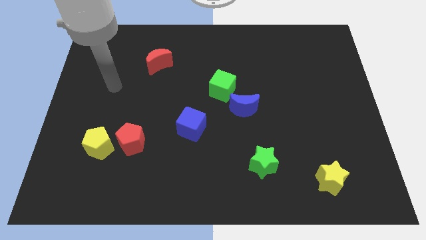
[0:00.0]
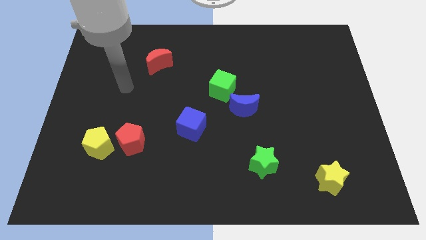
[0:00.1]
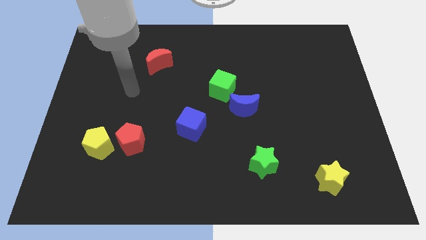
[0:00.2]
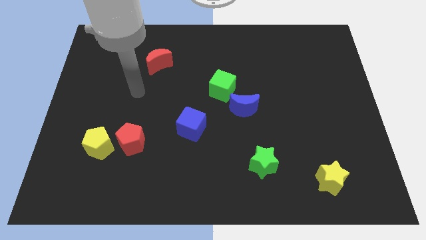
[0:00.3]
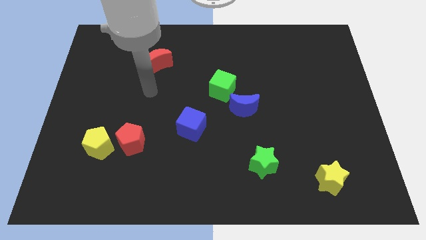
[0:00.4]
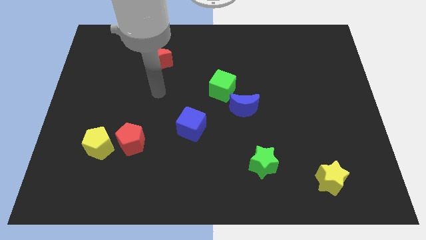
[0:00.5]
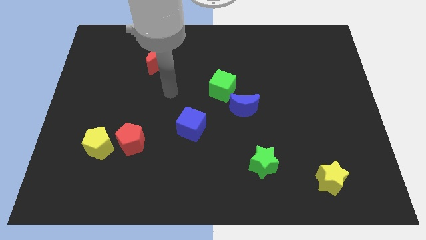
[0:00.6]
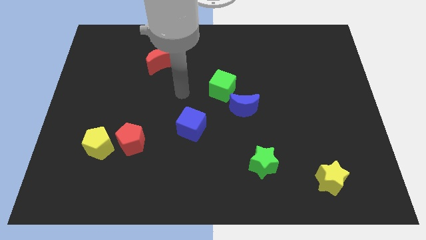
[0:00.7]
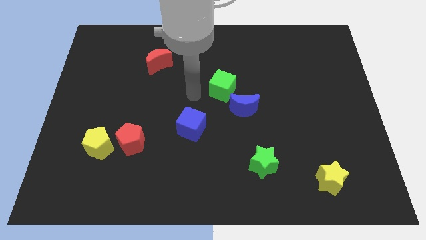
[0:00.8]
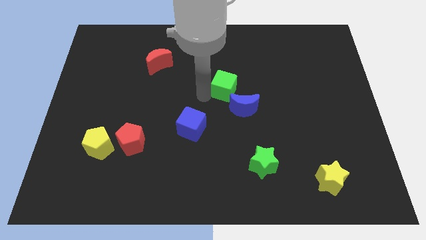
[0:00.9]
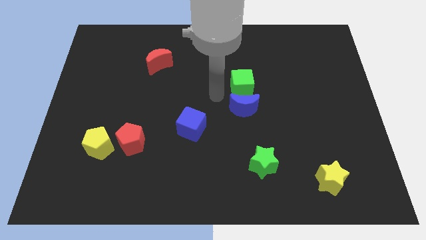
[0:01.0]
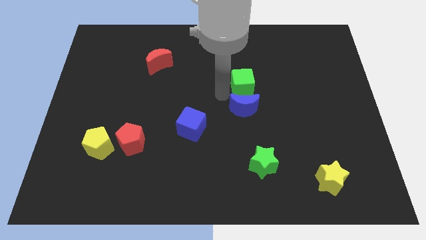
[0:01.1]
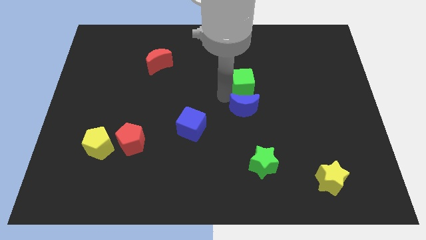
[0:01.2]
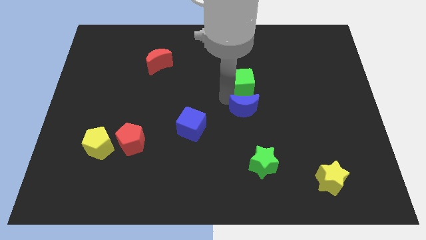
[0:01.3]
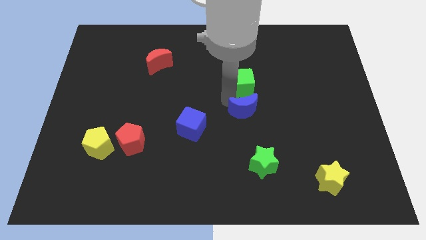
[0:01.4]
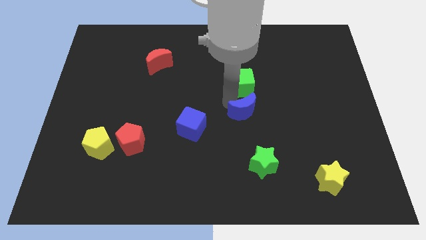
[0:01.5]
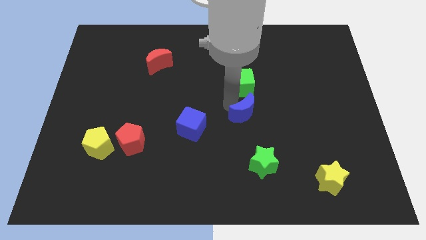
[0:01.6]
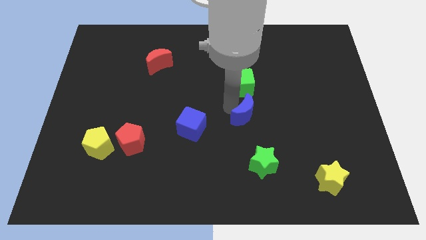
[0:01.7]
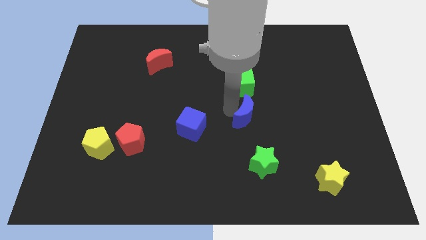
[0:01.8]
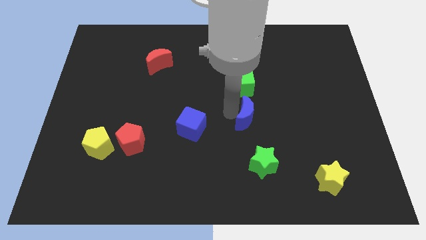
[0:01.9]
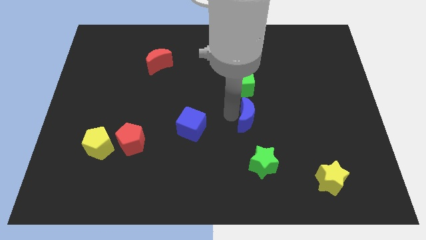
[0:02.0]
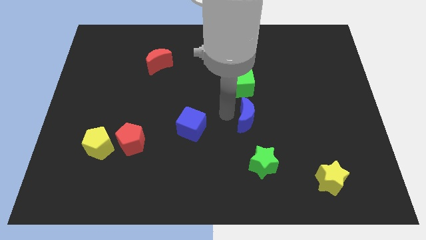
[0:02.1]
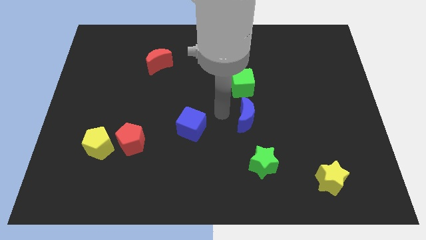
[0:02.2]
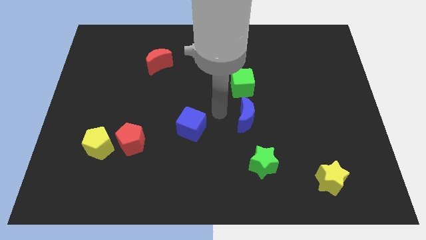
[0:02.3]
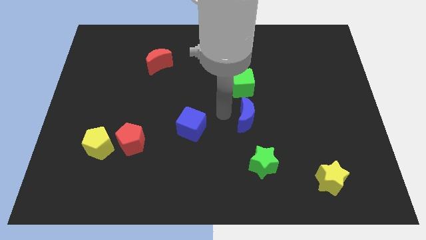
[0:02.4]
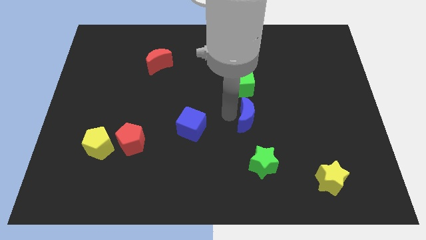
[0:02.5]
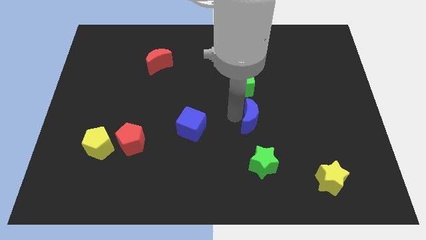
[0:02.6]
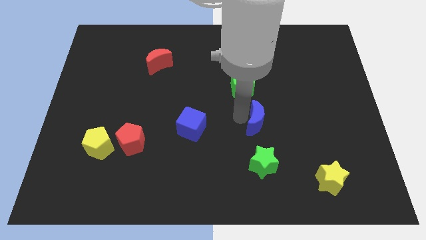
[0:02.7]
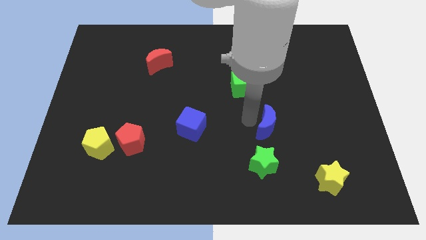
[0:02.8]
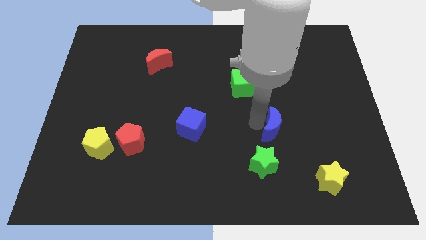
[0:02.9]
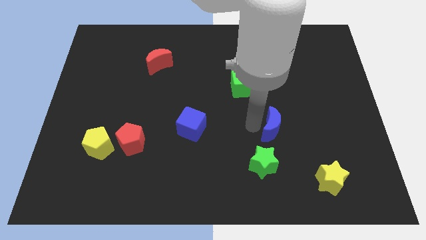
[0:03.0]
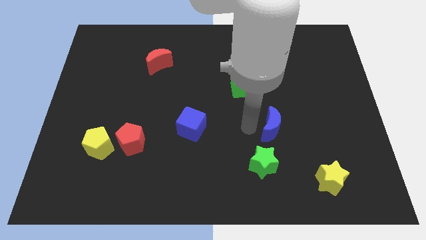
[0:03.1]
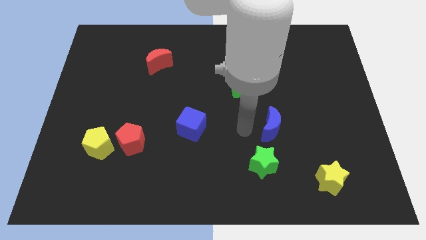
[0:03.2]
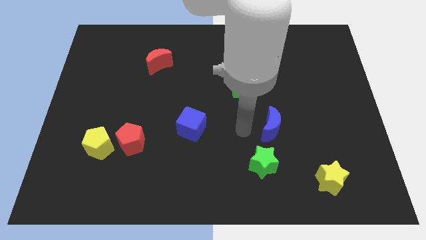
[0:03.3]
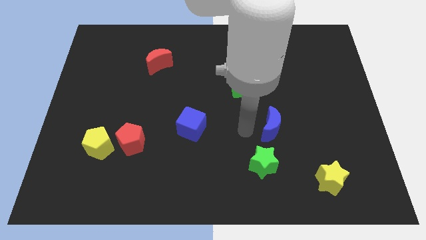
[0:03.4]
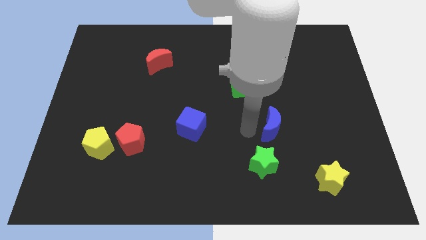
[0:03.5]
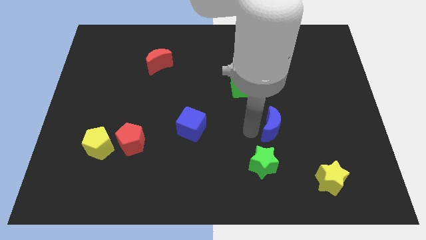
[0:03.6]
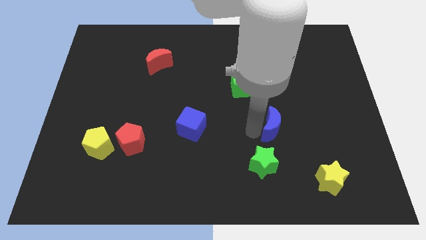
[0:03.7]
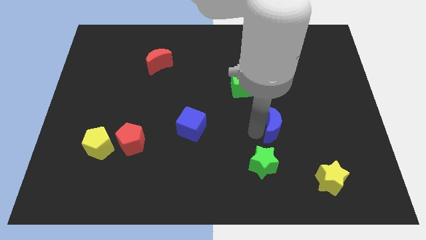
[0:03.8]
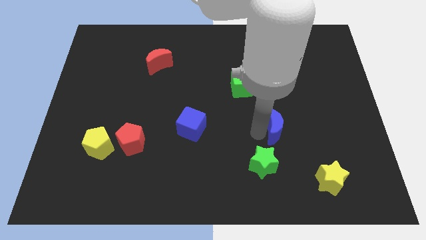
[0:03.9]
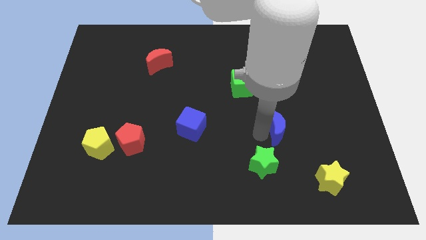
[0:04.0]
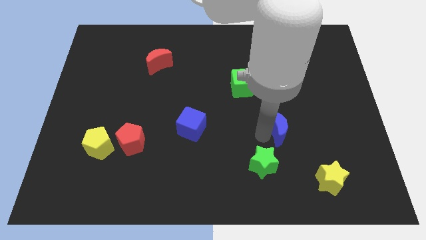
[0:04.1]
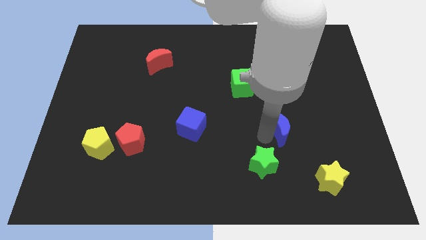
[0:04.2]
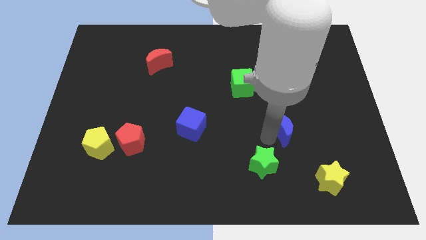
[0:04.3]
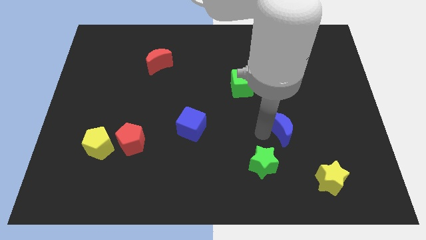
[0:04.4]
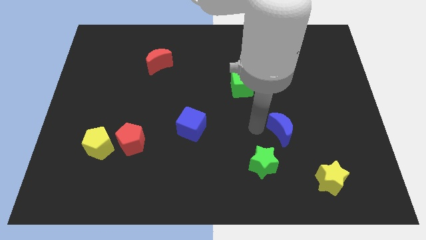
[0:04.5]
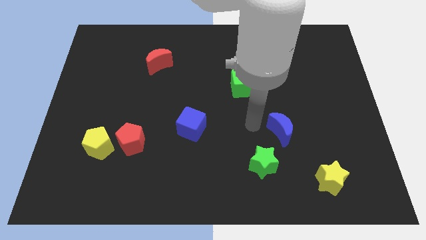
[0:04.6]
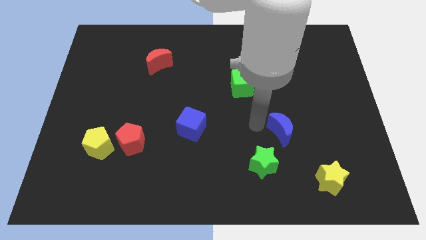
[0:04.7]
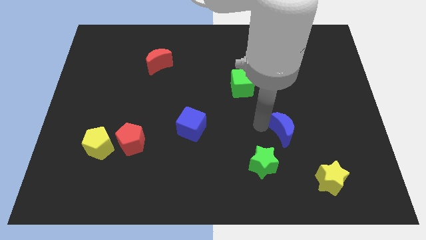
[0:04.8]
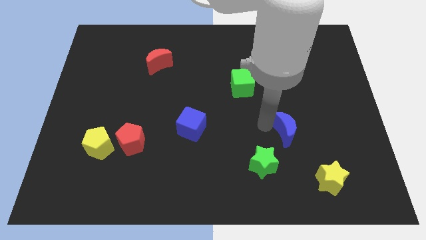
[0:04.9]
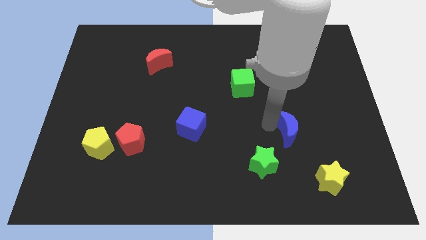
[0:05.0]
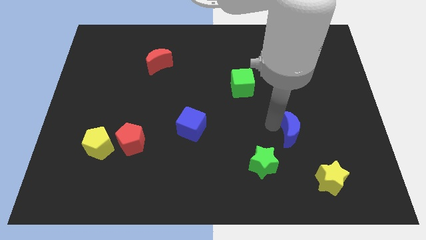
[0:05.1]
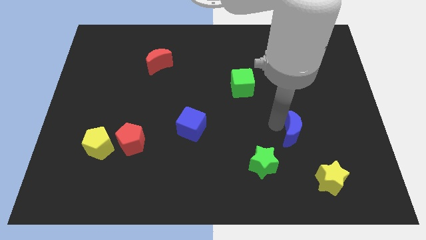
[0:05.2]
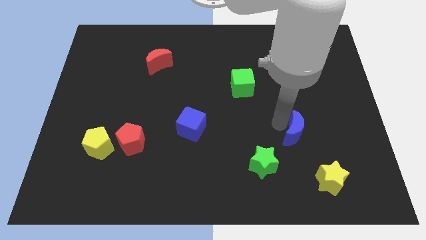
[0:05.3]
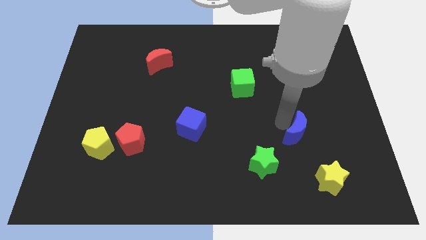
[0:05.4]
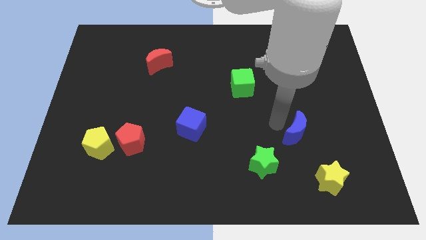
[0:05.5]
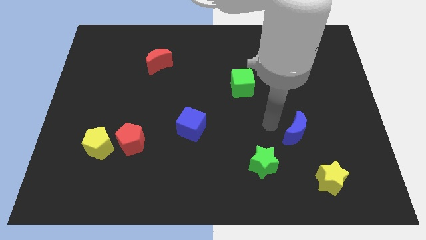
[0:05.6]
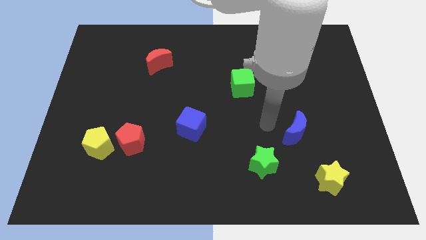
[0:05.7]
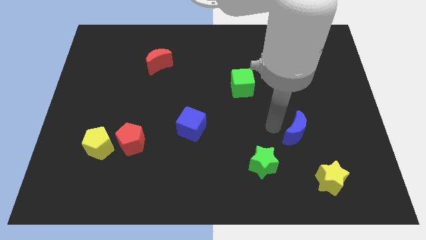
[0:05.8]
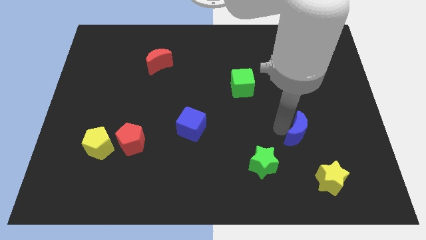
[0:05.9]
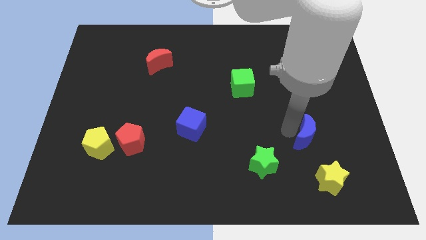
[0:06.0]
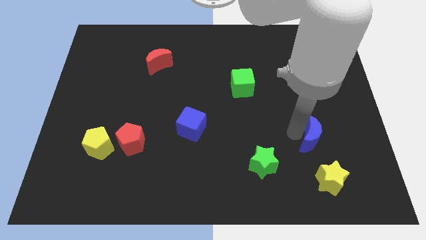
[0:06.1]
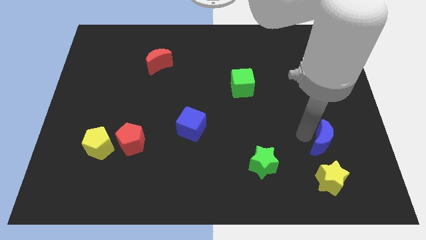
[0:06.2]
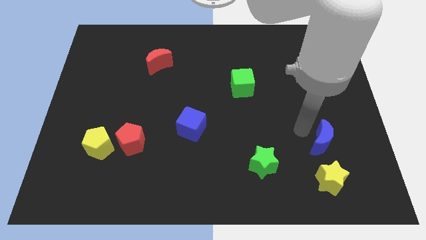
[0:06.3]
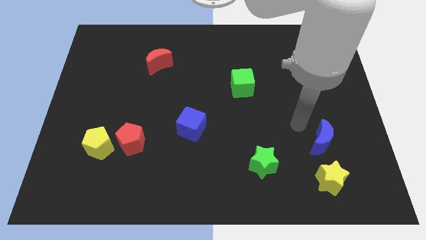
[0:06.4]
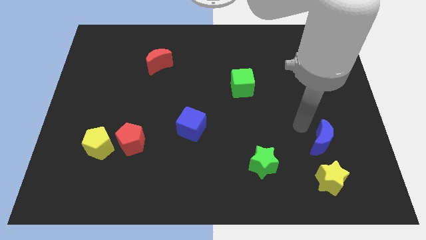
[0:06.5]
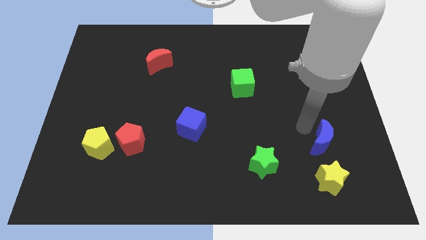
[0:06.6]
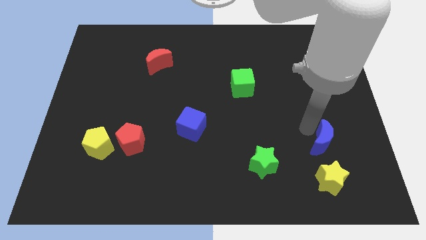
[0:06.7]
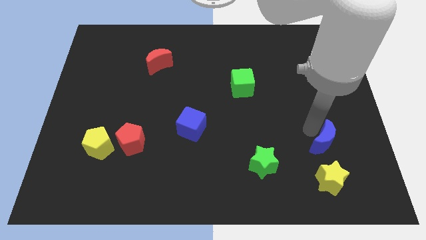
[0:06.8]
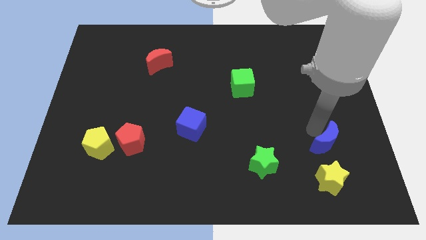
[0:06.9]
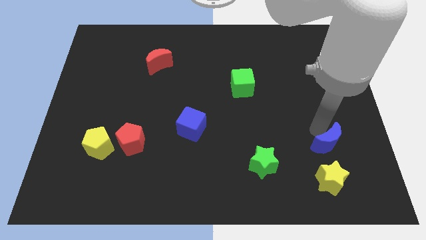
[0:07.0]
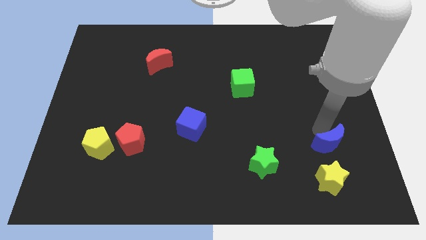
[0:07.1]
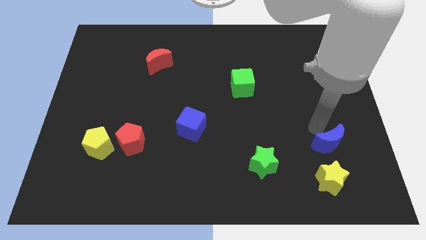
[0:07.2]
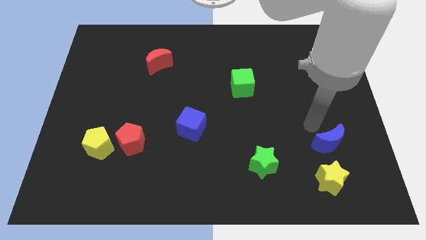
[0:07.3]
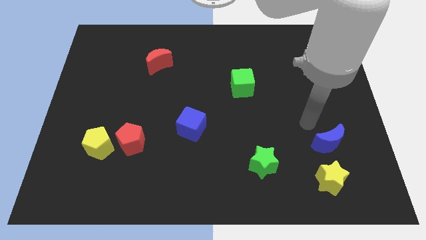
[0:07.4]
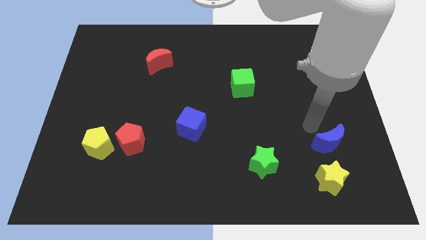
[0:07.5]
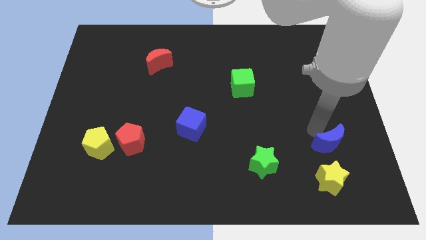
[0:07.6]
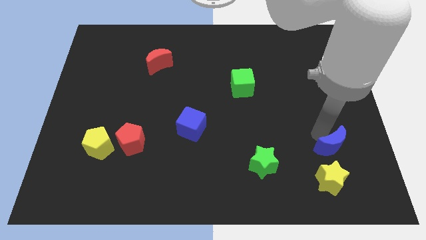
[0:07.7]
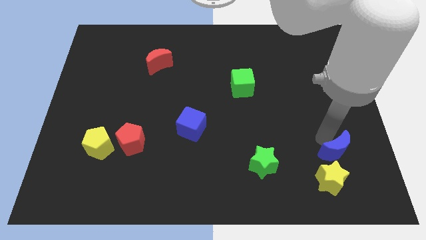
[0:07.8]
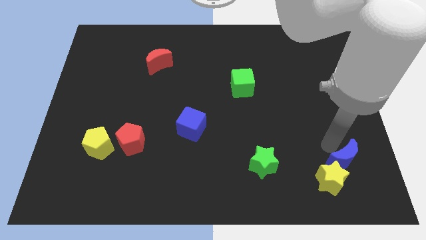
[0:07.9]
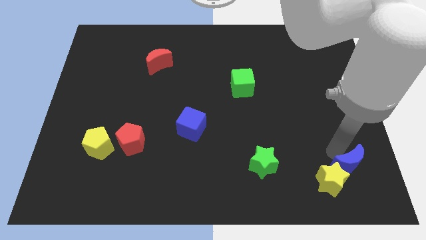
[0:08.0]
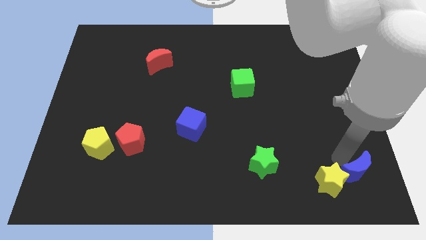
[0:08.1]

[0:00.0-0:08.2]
push the blue moon to the lower right corner
